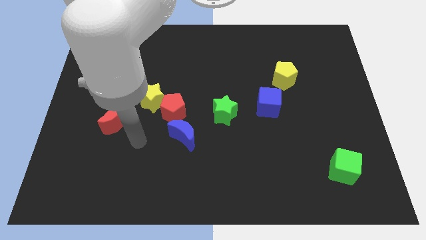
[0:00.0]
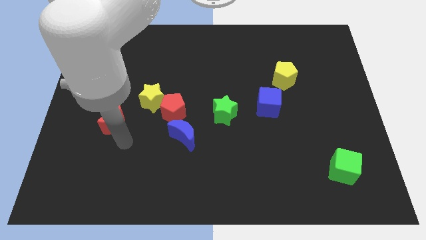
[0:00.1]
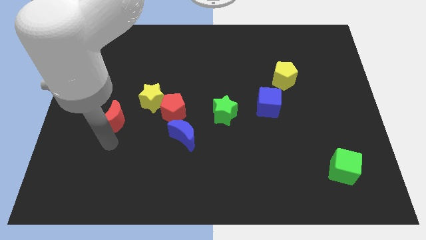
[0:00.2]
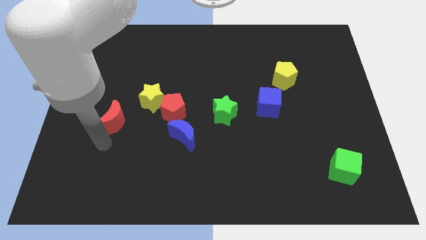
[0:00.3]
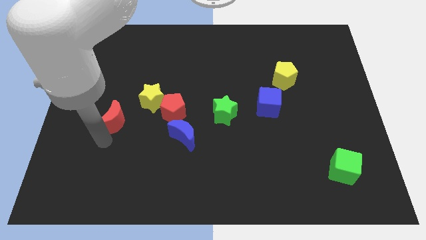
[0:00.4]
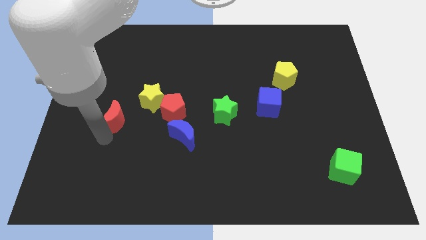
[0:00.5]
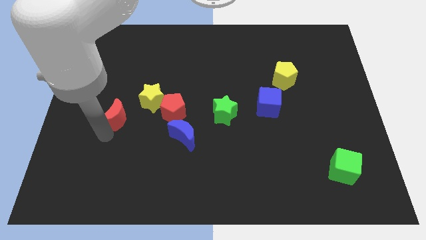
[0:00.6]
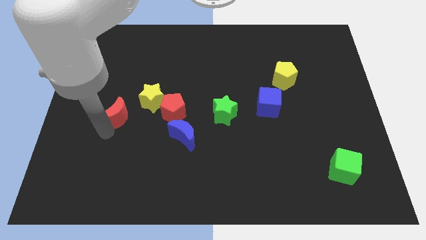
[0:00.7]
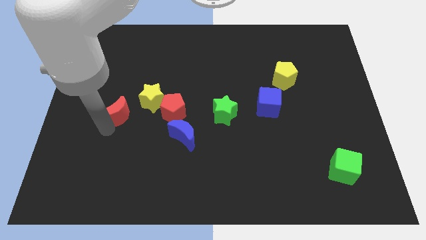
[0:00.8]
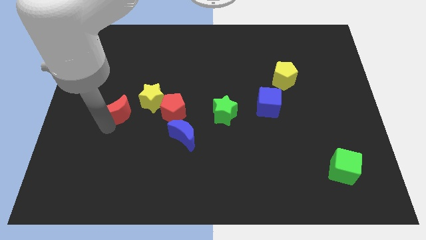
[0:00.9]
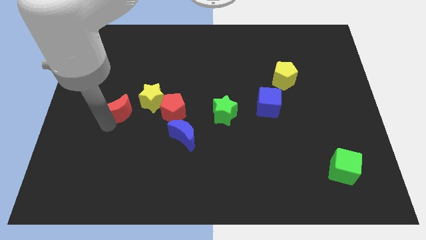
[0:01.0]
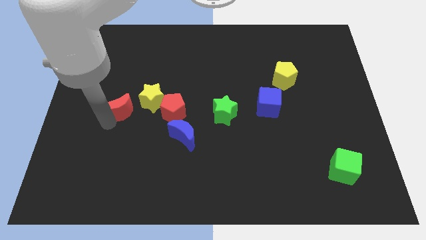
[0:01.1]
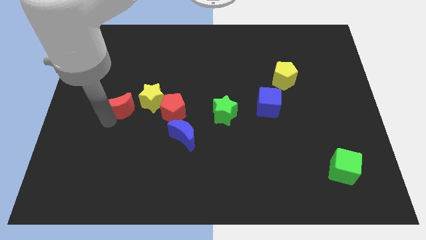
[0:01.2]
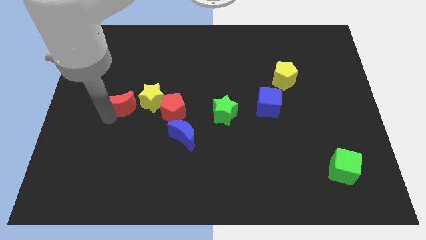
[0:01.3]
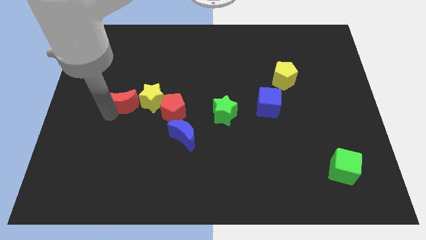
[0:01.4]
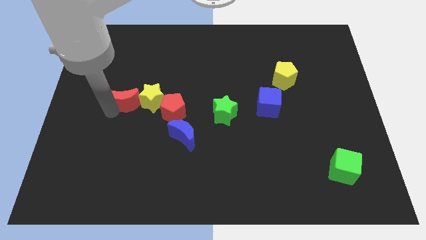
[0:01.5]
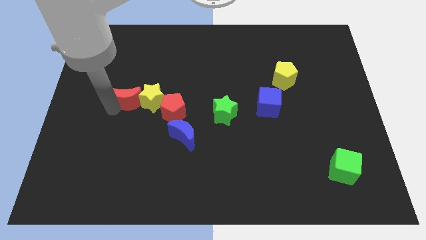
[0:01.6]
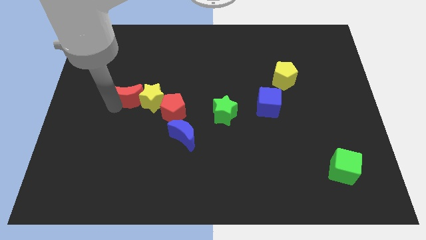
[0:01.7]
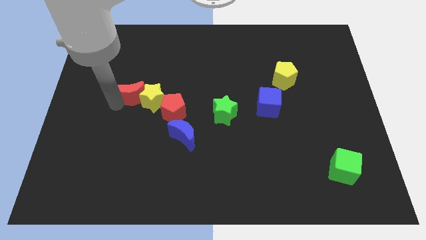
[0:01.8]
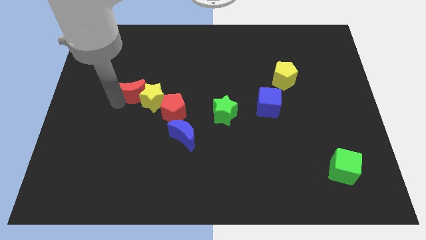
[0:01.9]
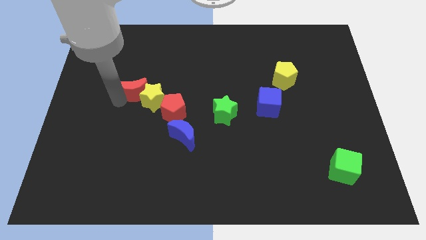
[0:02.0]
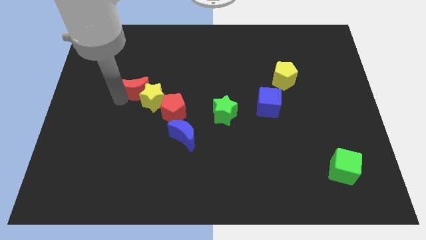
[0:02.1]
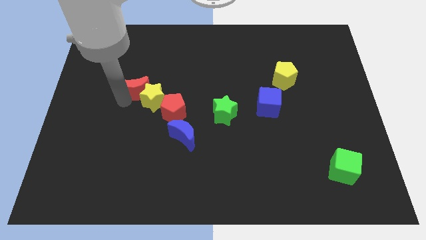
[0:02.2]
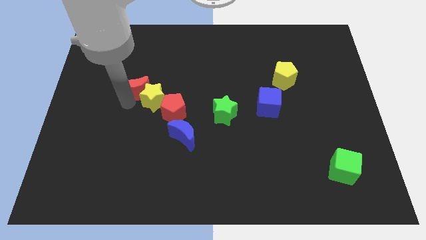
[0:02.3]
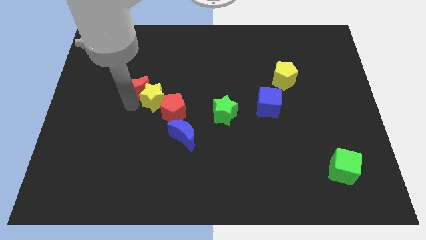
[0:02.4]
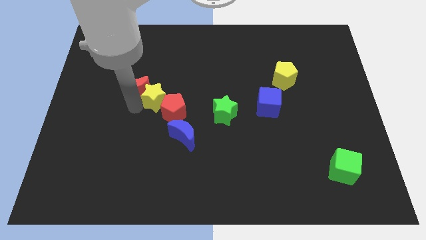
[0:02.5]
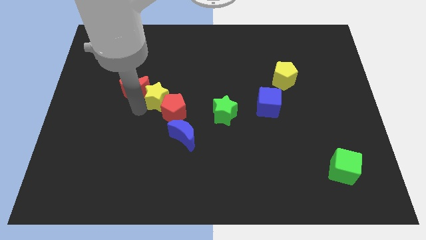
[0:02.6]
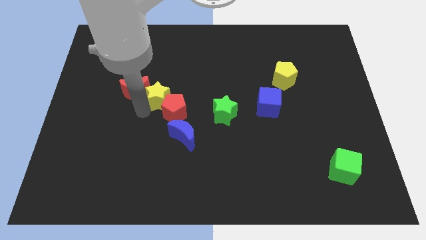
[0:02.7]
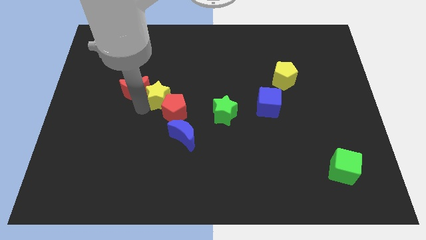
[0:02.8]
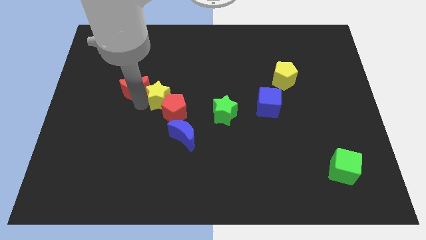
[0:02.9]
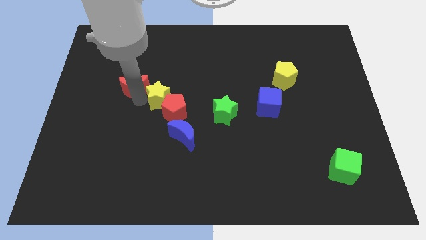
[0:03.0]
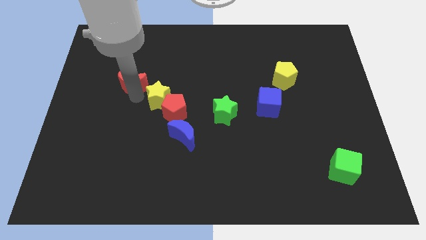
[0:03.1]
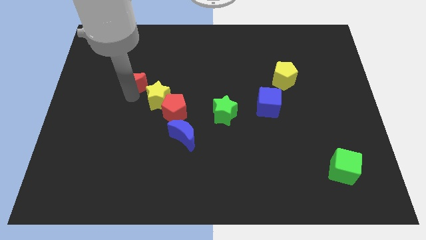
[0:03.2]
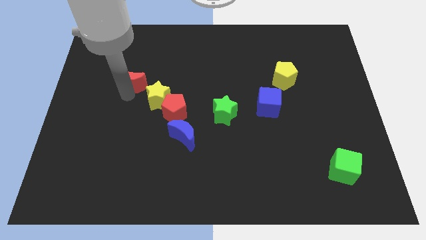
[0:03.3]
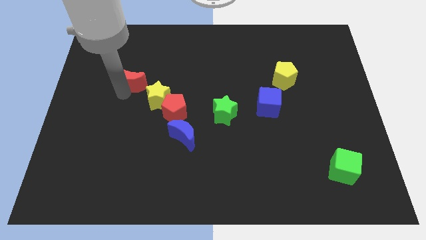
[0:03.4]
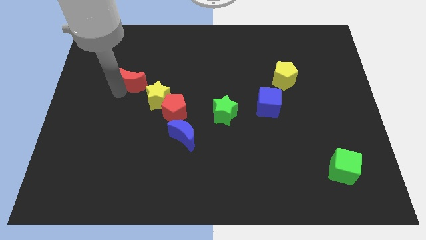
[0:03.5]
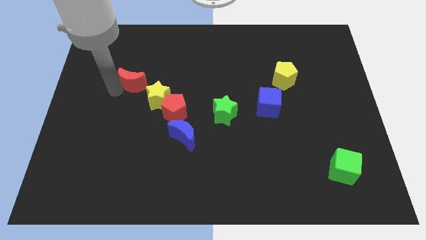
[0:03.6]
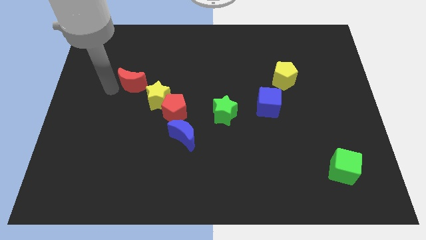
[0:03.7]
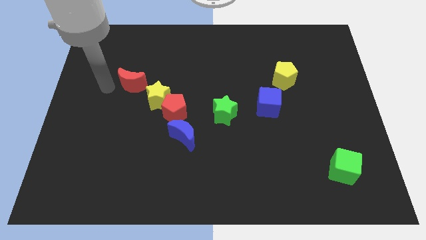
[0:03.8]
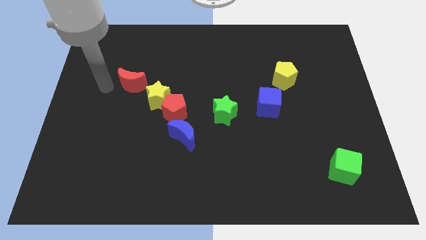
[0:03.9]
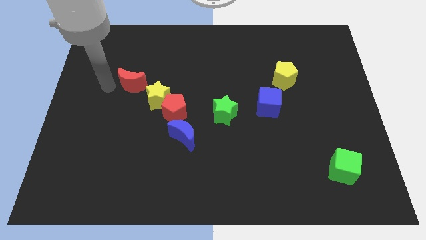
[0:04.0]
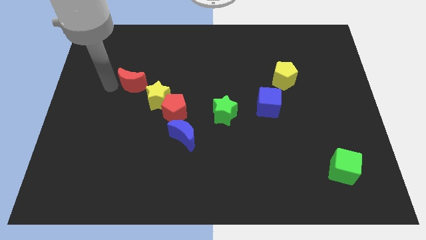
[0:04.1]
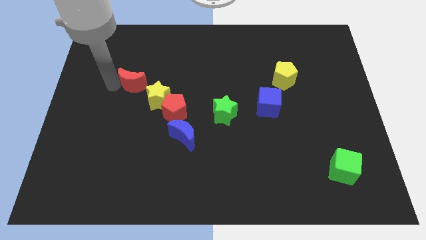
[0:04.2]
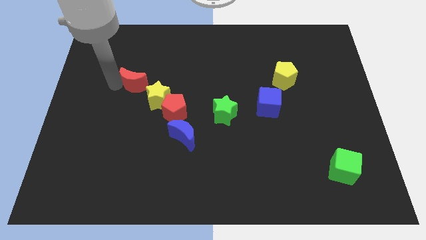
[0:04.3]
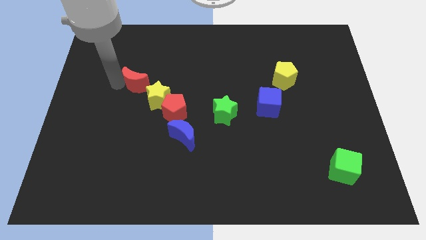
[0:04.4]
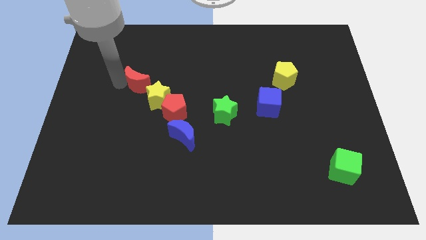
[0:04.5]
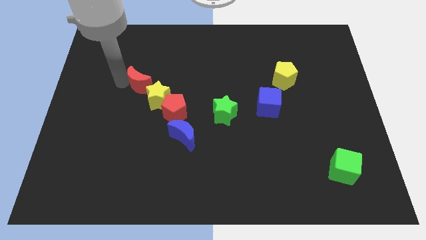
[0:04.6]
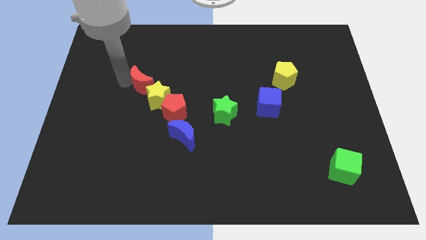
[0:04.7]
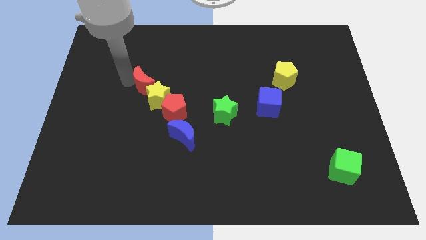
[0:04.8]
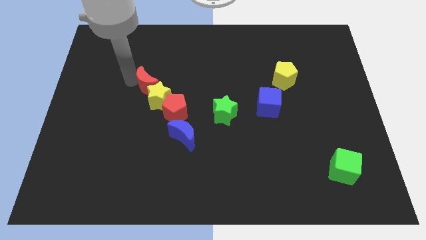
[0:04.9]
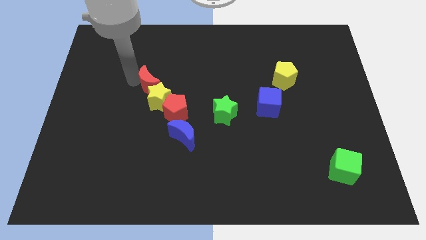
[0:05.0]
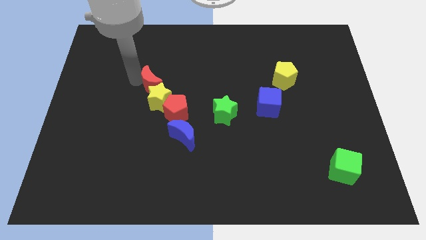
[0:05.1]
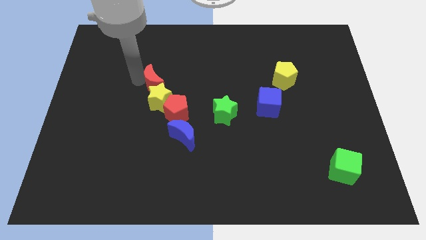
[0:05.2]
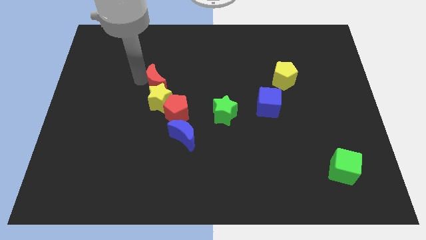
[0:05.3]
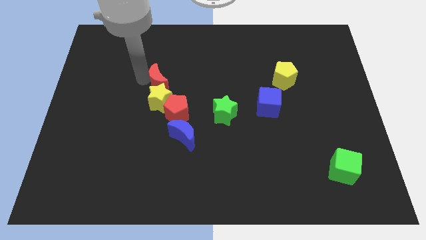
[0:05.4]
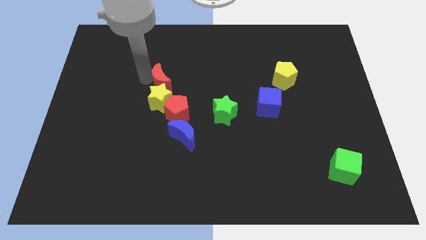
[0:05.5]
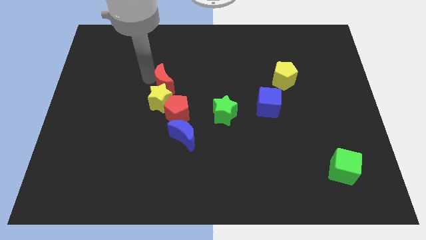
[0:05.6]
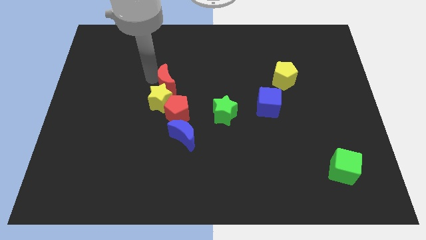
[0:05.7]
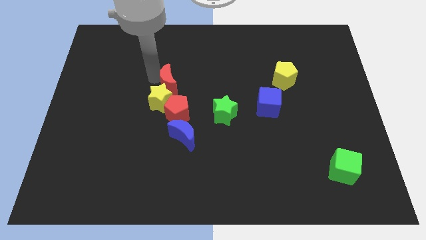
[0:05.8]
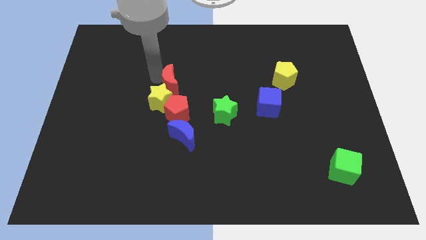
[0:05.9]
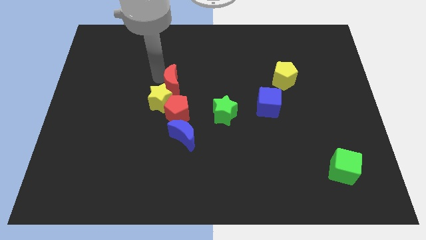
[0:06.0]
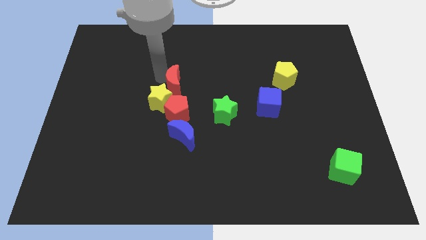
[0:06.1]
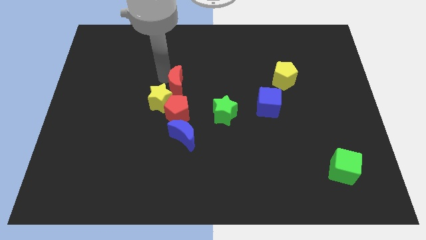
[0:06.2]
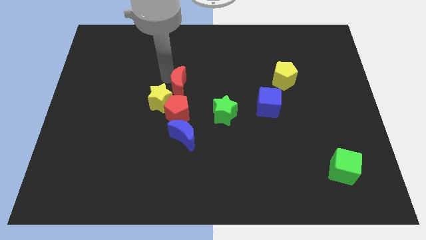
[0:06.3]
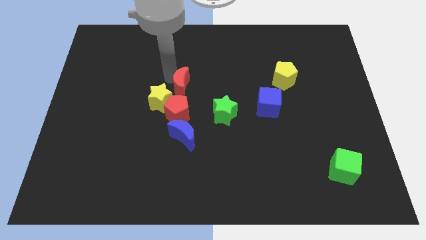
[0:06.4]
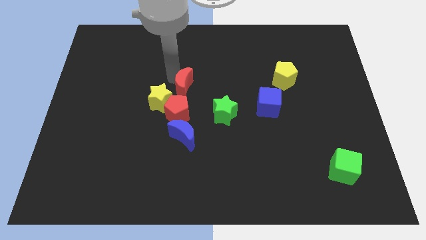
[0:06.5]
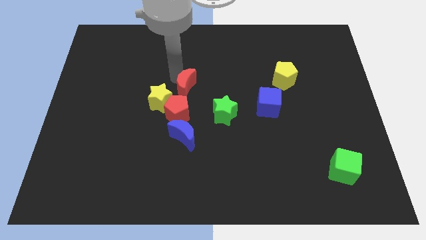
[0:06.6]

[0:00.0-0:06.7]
move the red moon diagonally up and to the right of the red pentagon

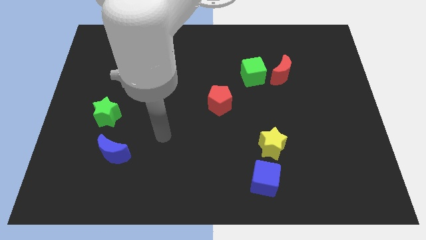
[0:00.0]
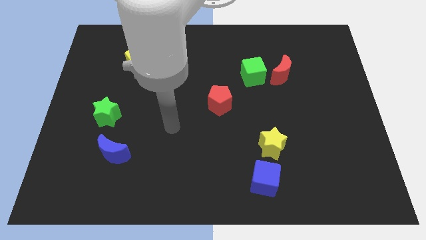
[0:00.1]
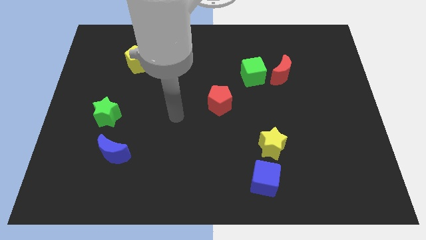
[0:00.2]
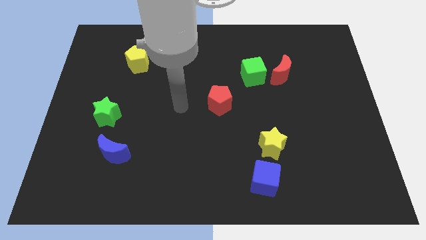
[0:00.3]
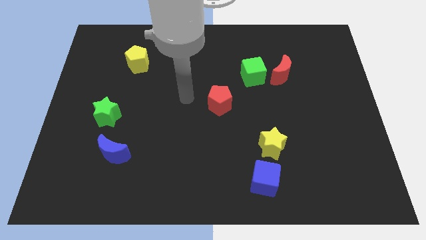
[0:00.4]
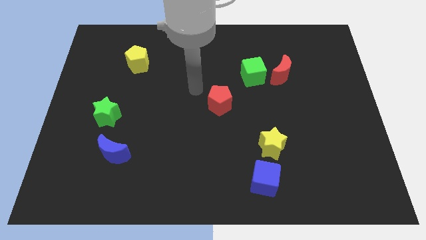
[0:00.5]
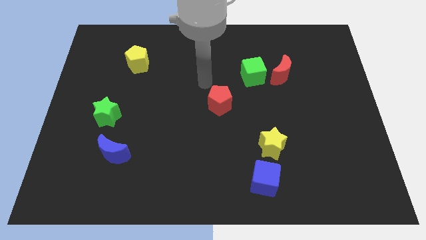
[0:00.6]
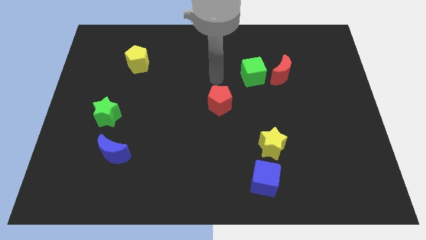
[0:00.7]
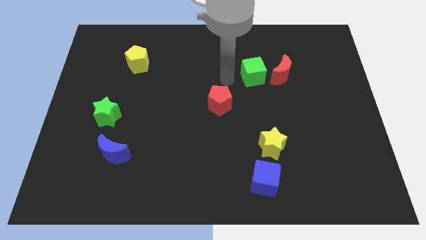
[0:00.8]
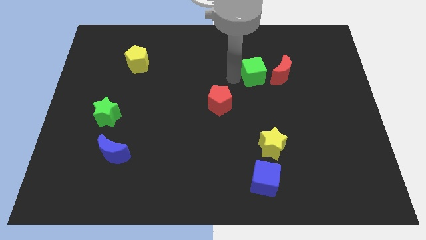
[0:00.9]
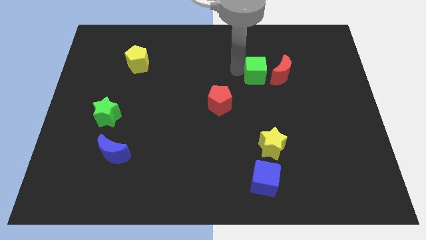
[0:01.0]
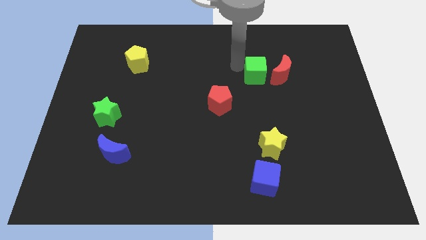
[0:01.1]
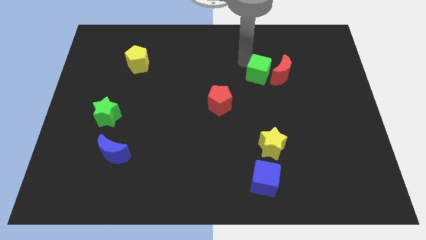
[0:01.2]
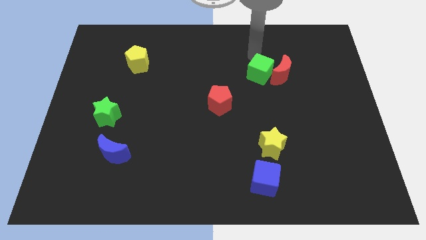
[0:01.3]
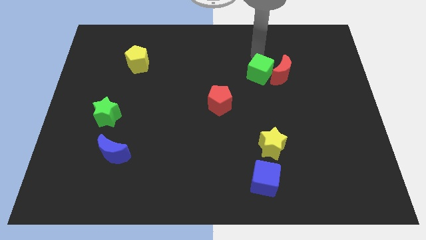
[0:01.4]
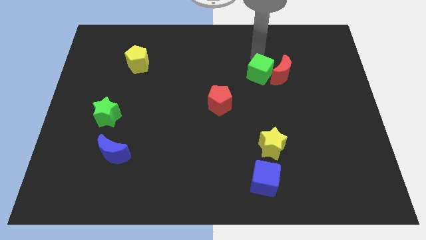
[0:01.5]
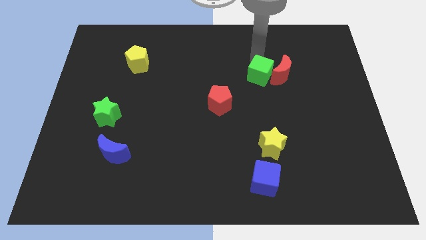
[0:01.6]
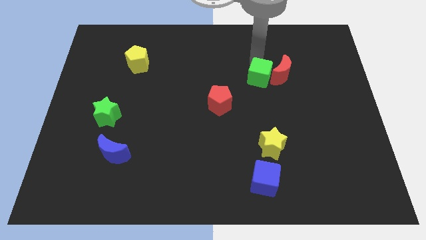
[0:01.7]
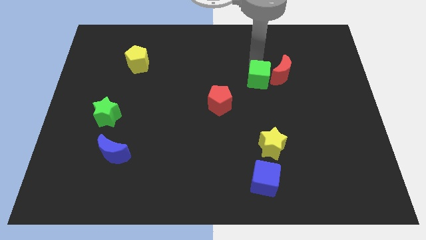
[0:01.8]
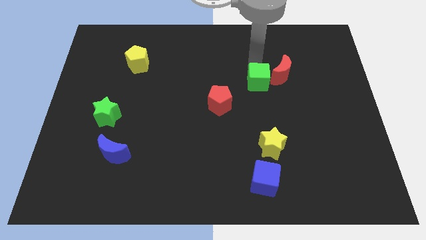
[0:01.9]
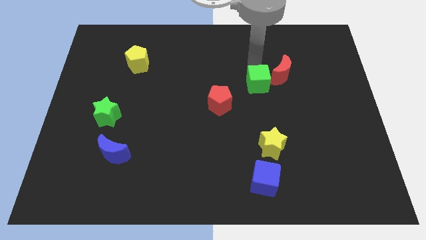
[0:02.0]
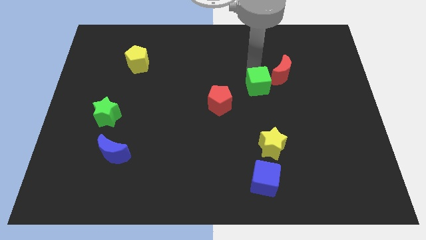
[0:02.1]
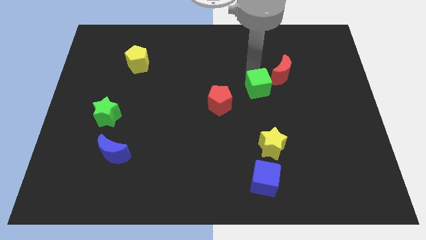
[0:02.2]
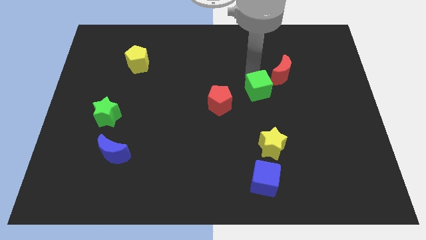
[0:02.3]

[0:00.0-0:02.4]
move the green cube right of the red pentagon
